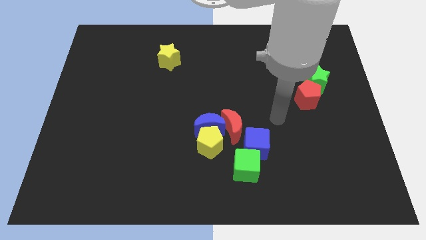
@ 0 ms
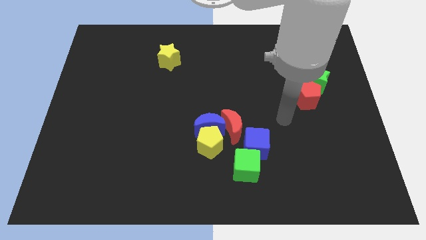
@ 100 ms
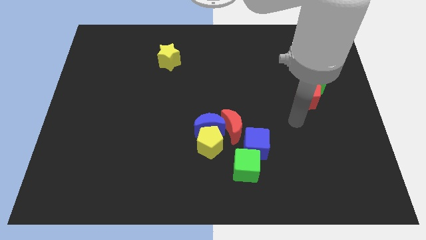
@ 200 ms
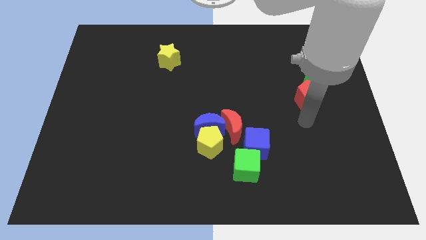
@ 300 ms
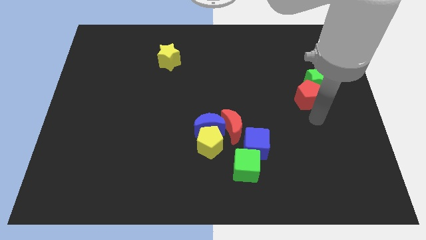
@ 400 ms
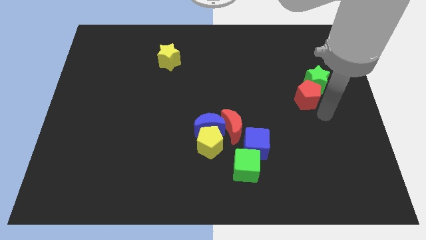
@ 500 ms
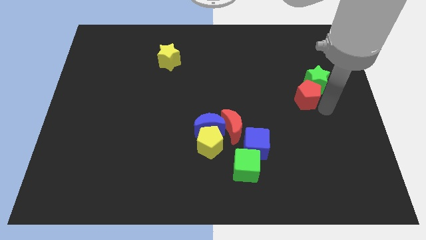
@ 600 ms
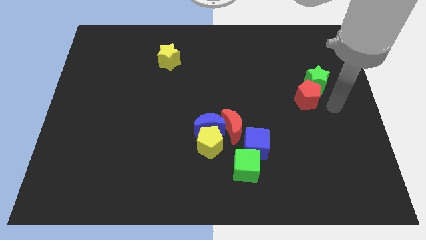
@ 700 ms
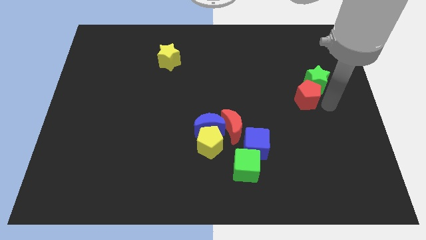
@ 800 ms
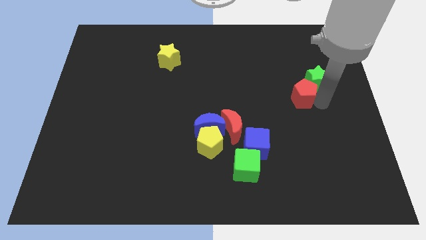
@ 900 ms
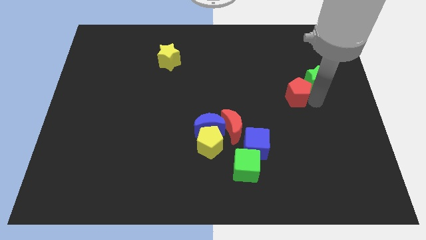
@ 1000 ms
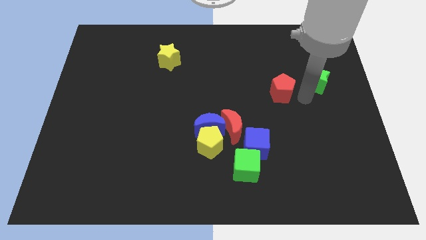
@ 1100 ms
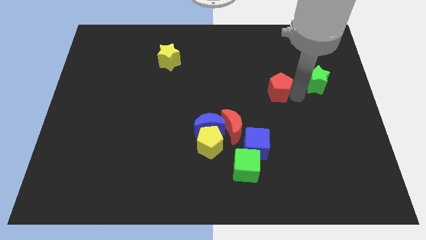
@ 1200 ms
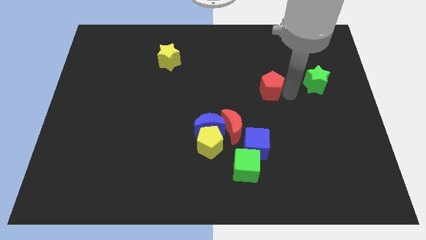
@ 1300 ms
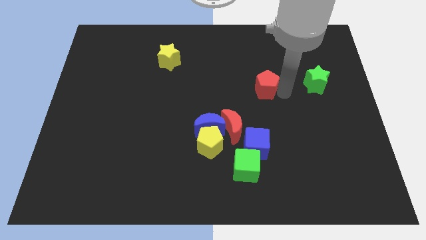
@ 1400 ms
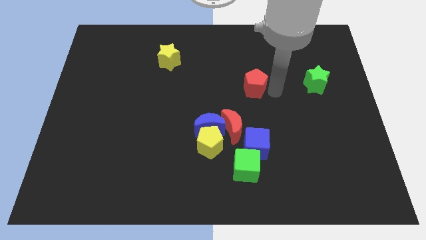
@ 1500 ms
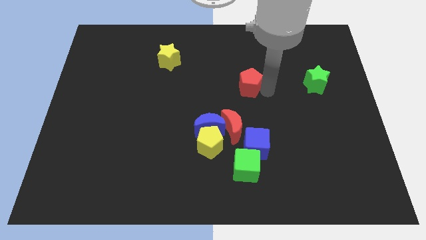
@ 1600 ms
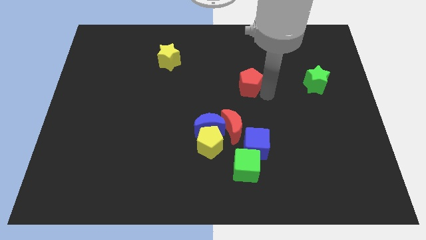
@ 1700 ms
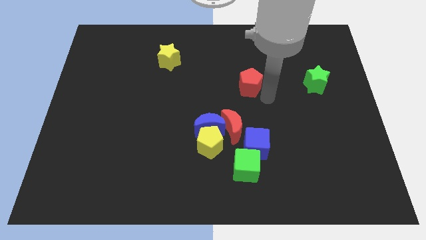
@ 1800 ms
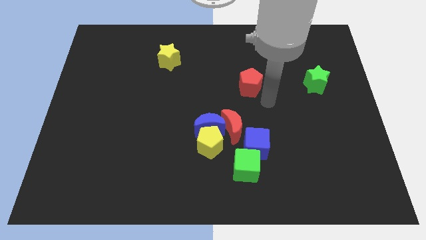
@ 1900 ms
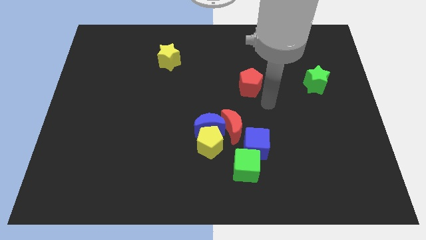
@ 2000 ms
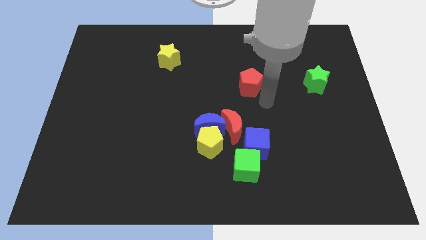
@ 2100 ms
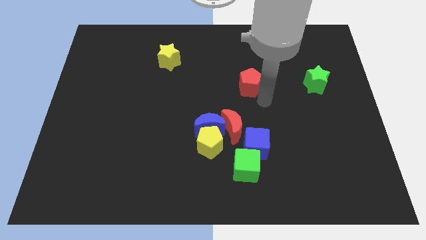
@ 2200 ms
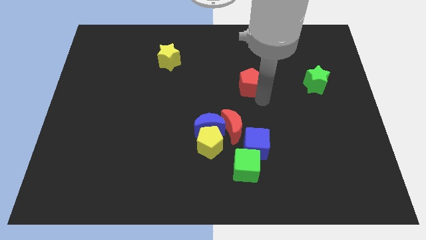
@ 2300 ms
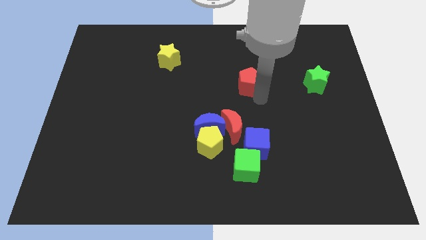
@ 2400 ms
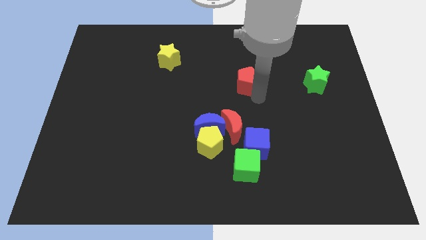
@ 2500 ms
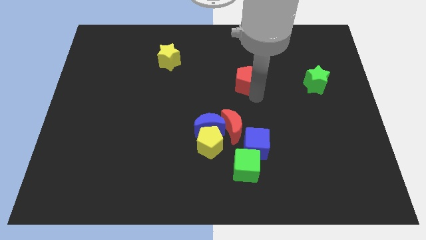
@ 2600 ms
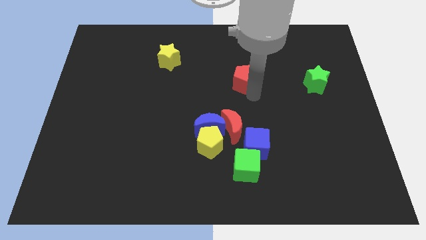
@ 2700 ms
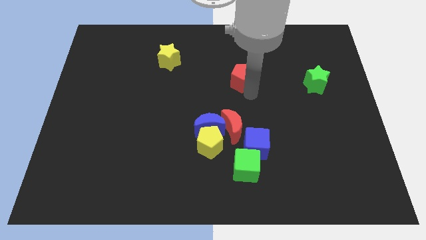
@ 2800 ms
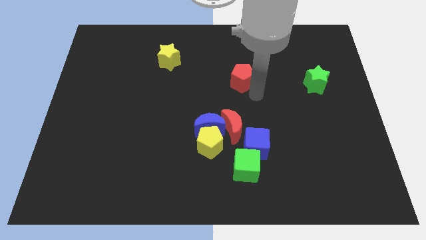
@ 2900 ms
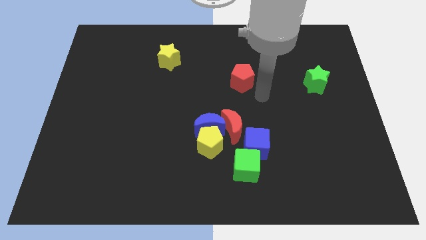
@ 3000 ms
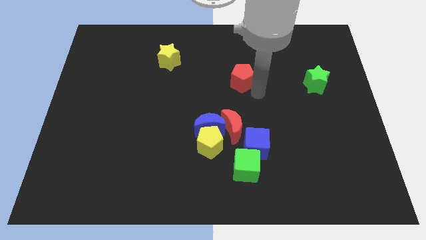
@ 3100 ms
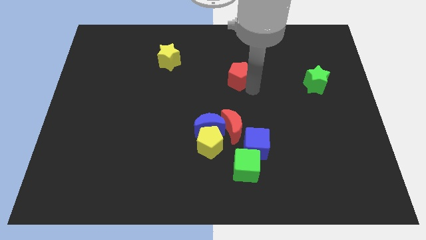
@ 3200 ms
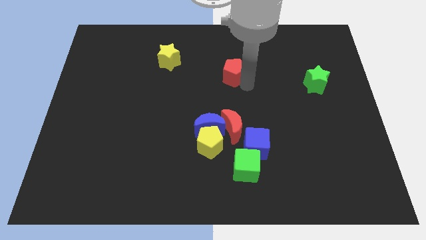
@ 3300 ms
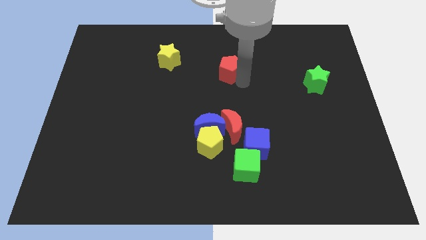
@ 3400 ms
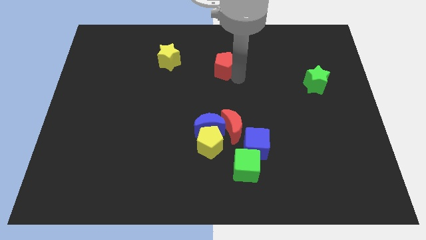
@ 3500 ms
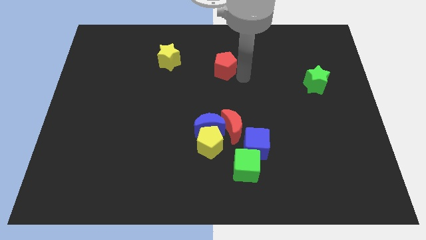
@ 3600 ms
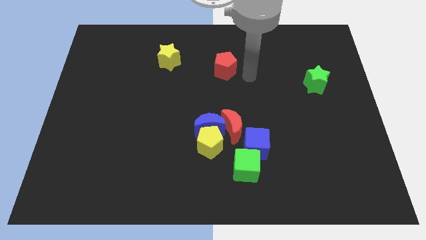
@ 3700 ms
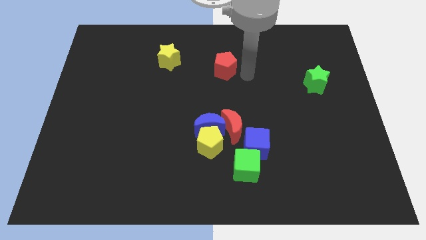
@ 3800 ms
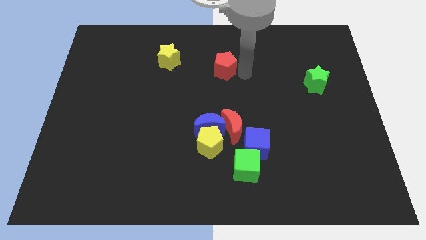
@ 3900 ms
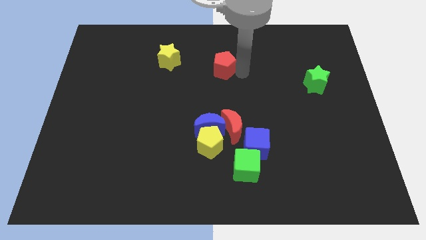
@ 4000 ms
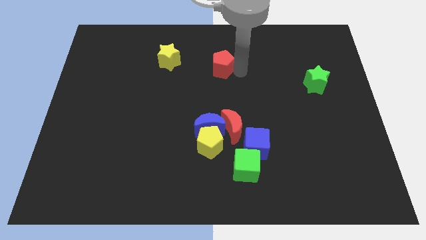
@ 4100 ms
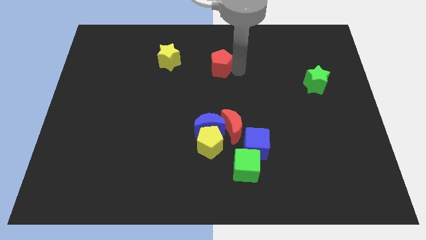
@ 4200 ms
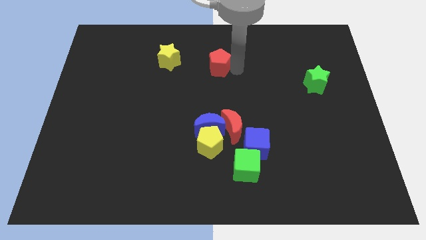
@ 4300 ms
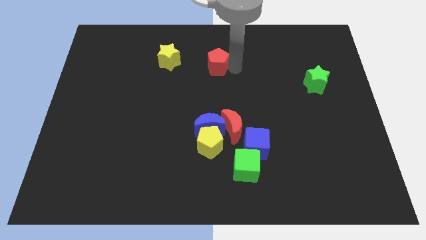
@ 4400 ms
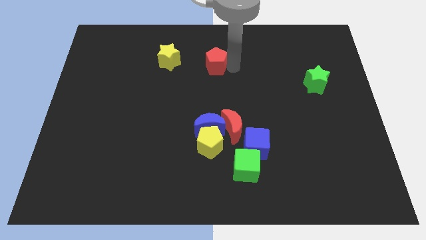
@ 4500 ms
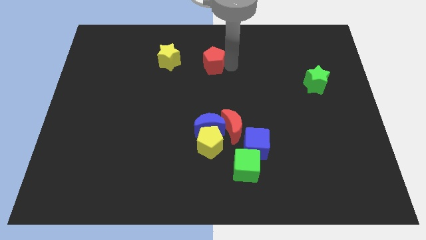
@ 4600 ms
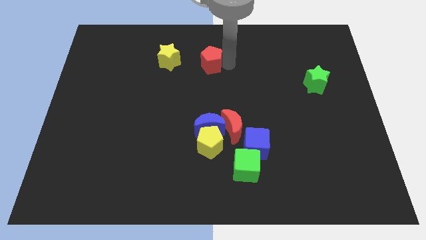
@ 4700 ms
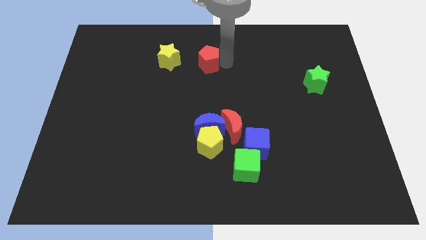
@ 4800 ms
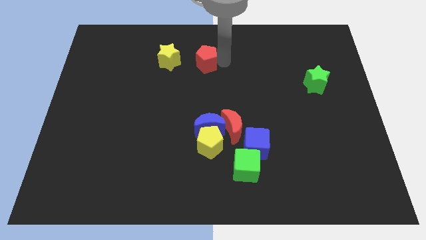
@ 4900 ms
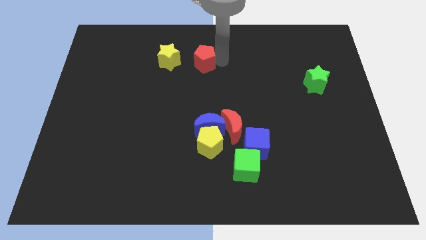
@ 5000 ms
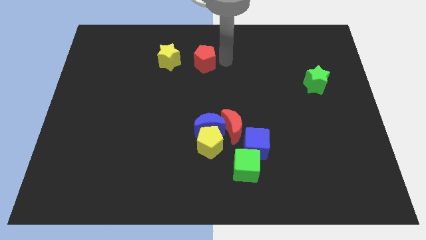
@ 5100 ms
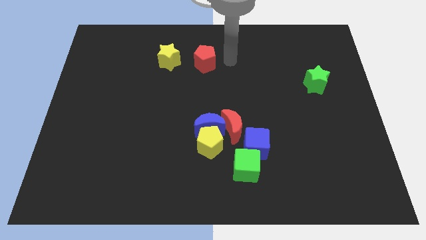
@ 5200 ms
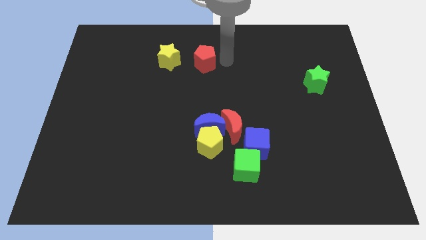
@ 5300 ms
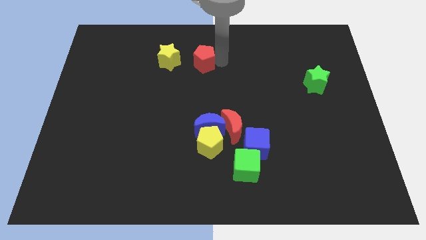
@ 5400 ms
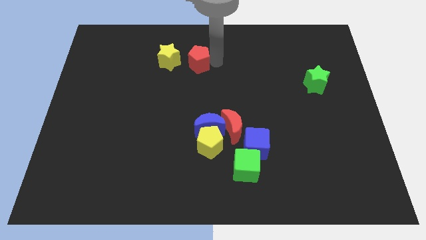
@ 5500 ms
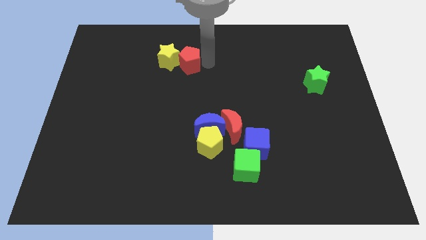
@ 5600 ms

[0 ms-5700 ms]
move the red pentagon next to the yellow star

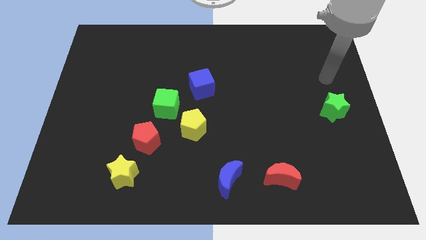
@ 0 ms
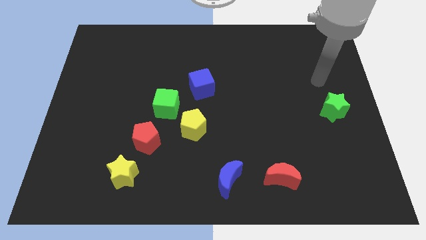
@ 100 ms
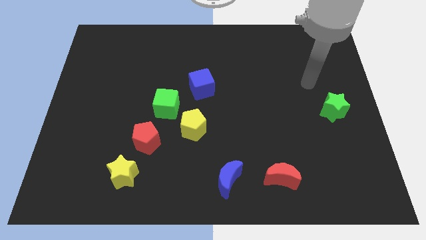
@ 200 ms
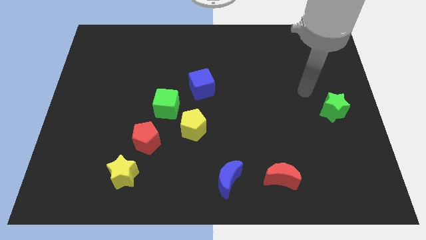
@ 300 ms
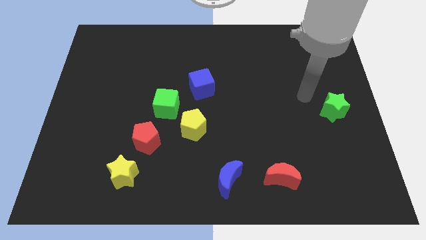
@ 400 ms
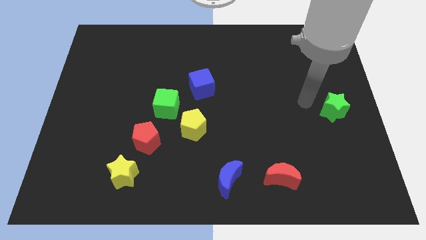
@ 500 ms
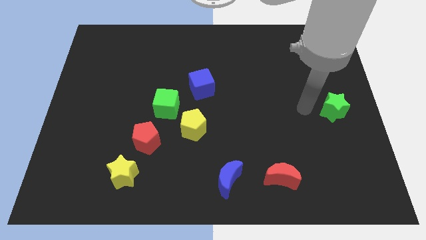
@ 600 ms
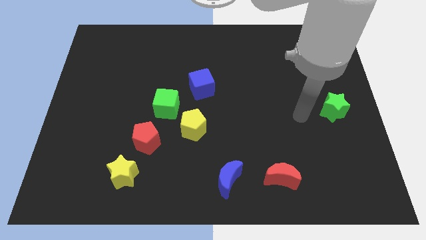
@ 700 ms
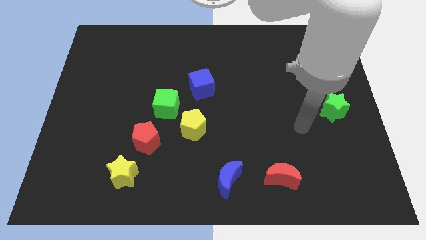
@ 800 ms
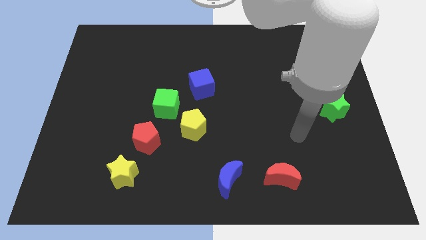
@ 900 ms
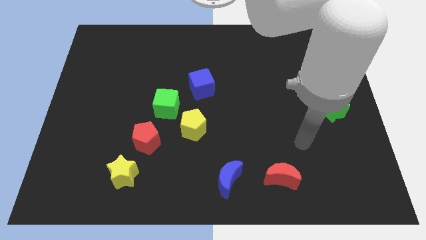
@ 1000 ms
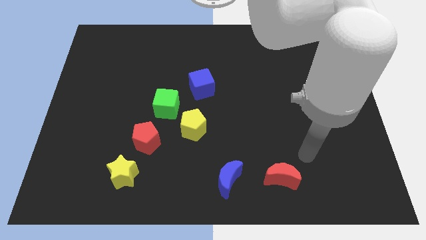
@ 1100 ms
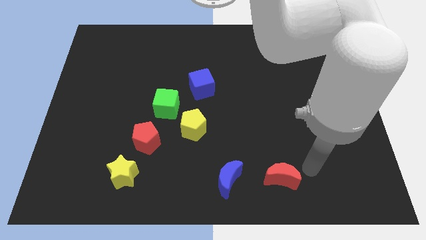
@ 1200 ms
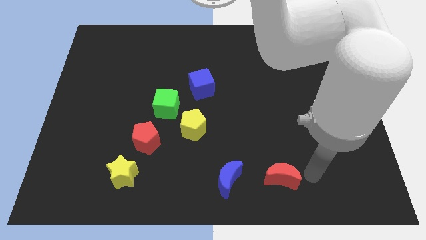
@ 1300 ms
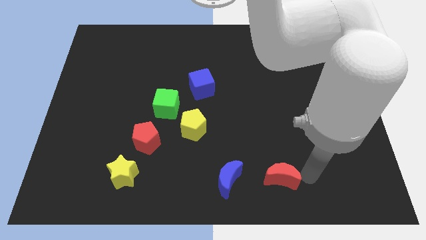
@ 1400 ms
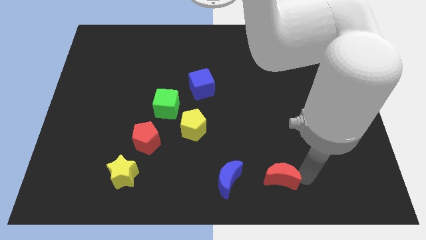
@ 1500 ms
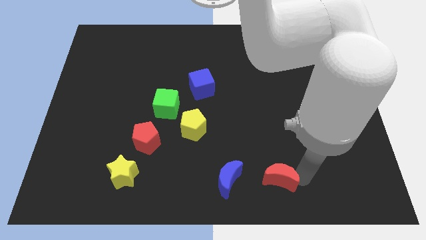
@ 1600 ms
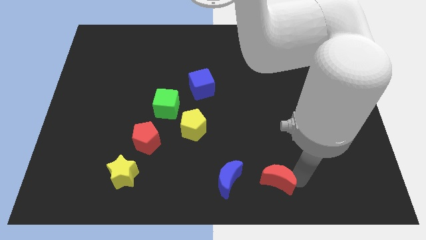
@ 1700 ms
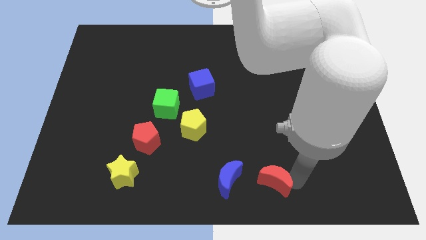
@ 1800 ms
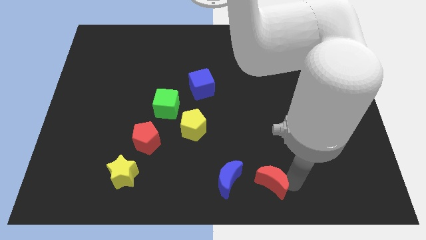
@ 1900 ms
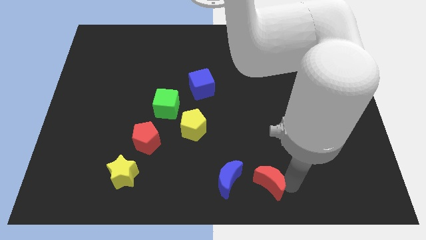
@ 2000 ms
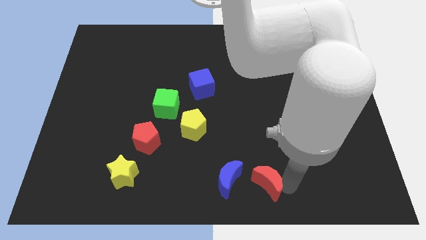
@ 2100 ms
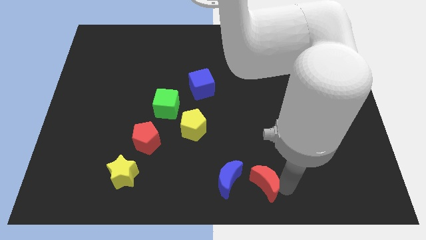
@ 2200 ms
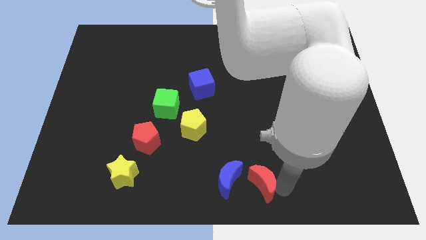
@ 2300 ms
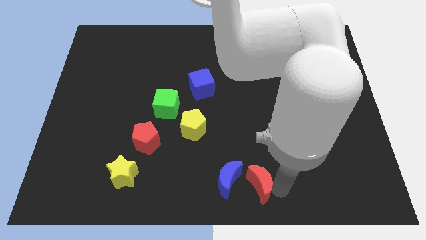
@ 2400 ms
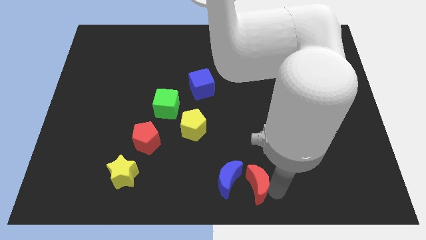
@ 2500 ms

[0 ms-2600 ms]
move the red moon close to the blue moon
